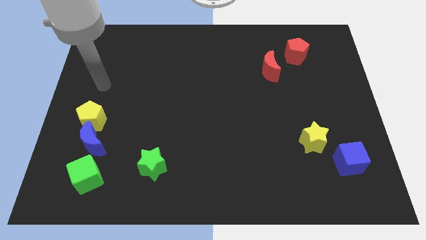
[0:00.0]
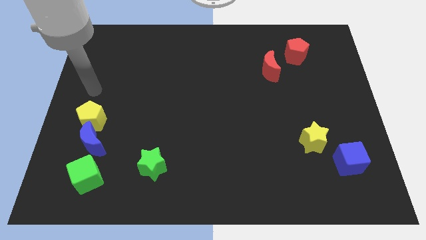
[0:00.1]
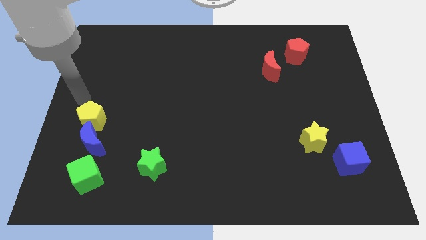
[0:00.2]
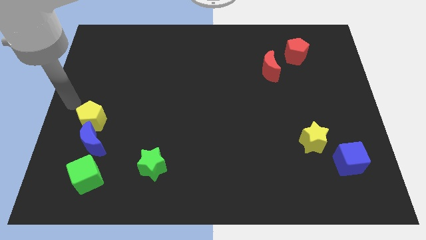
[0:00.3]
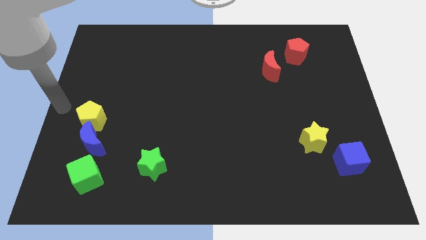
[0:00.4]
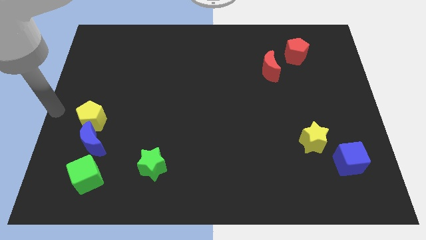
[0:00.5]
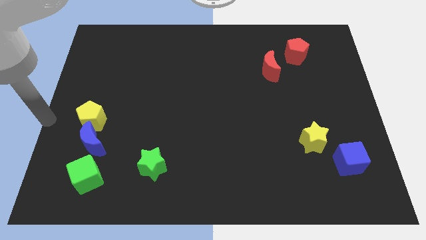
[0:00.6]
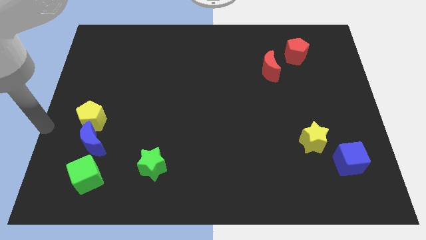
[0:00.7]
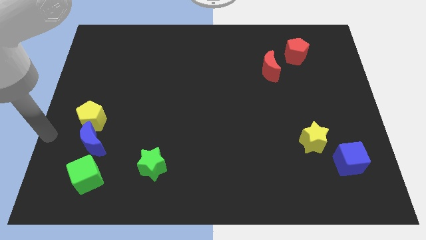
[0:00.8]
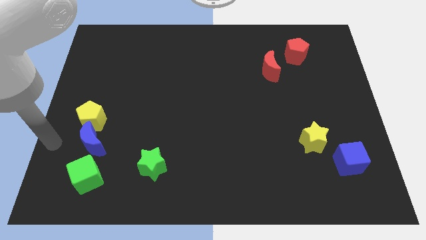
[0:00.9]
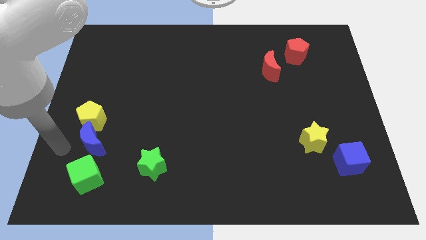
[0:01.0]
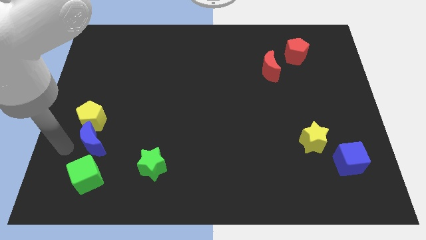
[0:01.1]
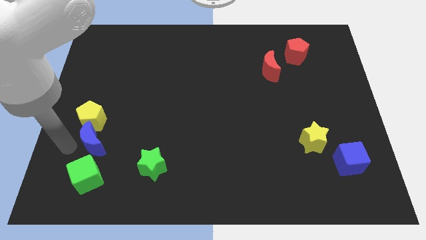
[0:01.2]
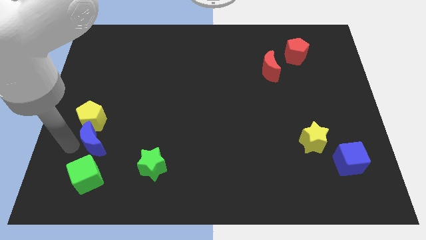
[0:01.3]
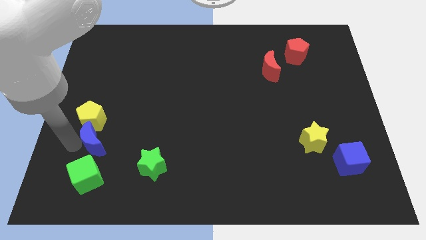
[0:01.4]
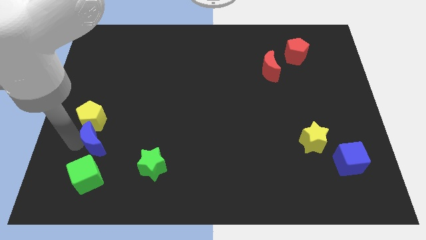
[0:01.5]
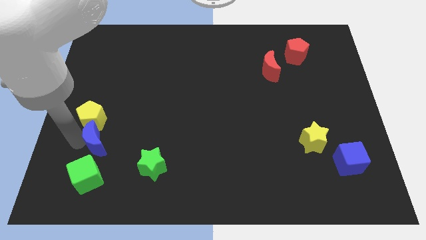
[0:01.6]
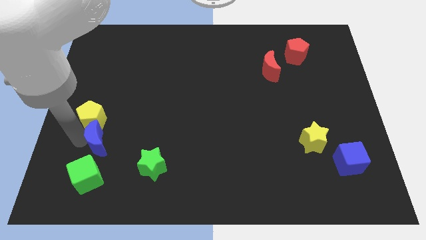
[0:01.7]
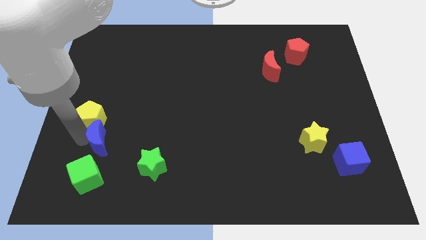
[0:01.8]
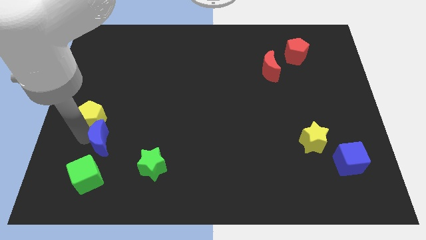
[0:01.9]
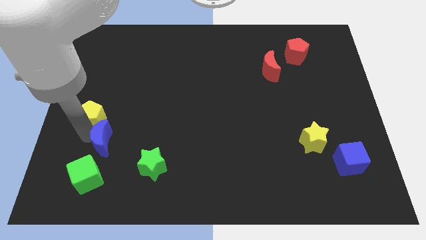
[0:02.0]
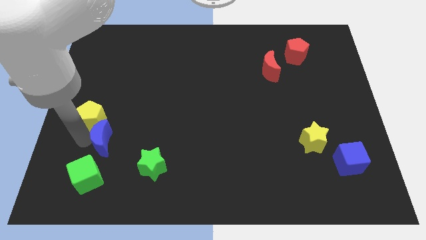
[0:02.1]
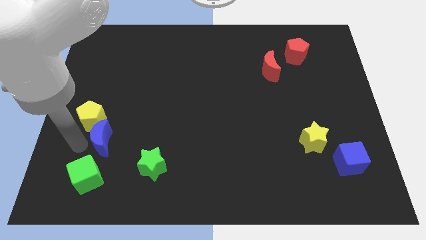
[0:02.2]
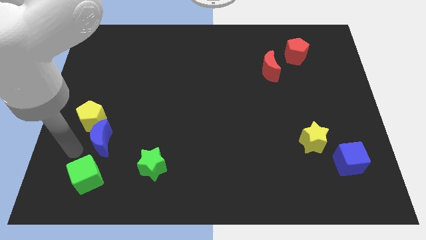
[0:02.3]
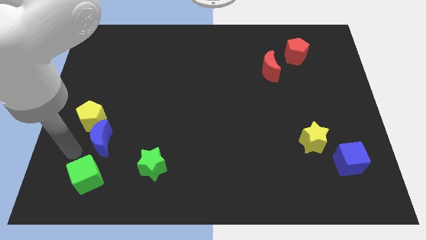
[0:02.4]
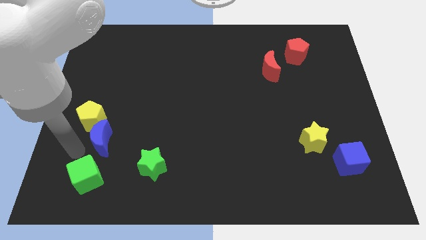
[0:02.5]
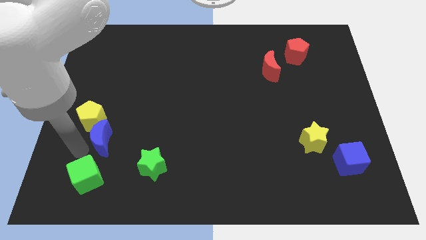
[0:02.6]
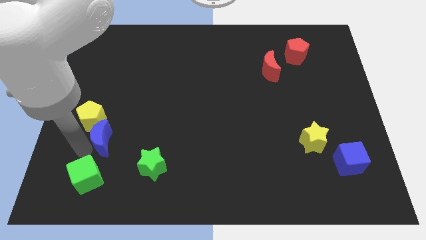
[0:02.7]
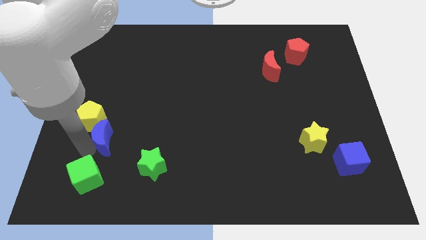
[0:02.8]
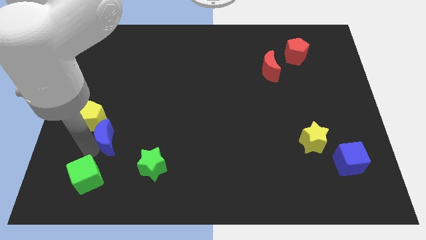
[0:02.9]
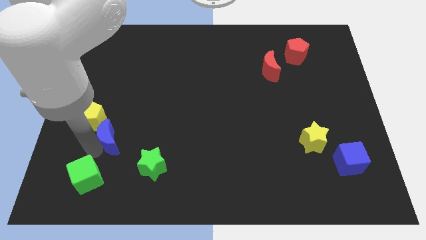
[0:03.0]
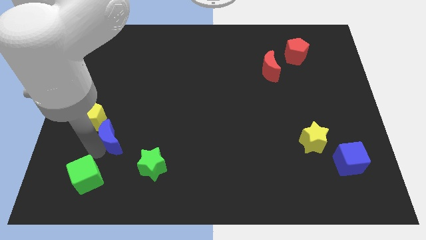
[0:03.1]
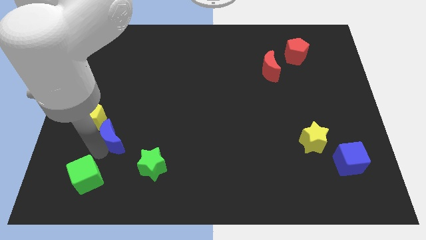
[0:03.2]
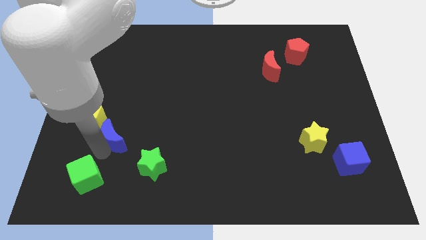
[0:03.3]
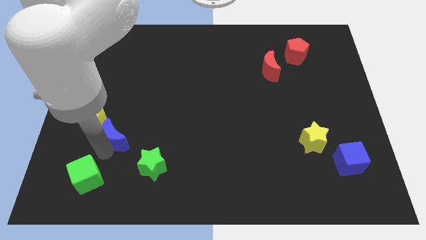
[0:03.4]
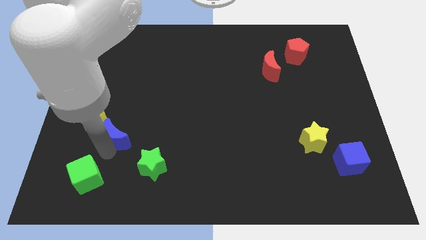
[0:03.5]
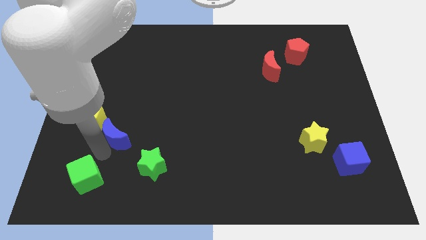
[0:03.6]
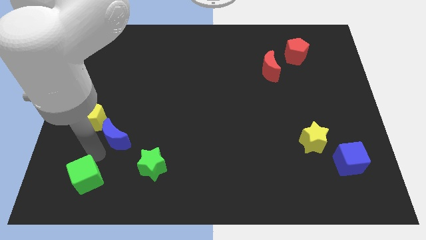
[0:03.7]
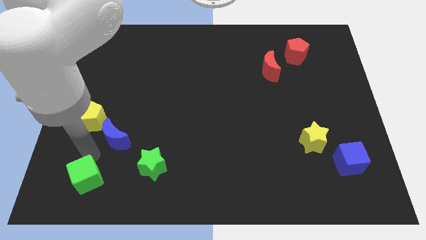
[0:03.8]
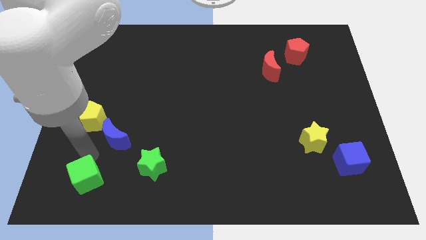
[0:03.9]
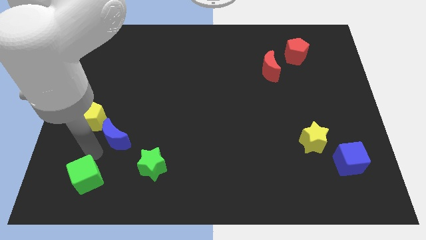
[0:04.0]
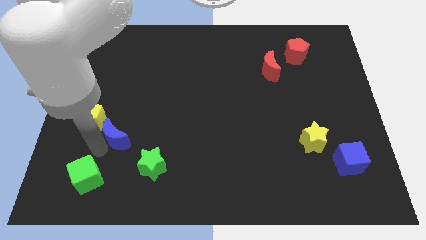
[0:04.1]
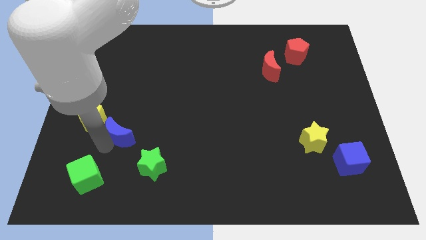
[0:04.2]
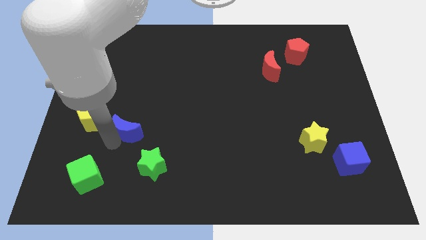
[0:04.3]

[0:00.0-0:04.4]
push the blue moon somewhat upwards and then to the right

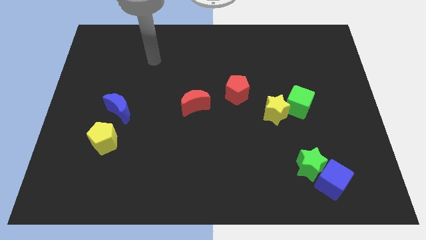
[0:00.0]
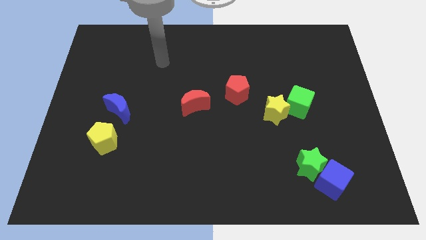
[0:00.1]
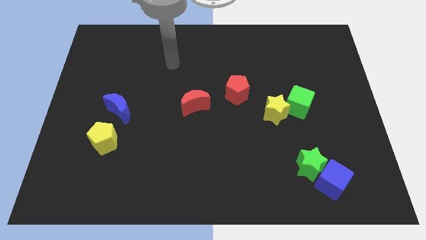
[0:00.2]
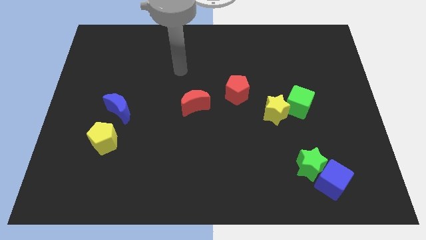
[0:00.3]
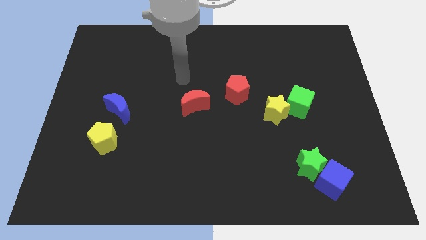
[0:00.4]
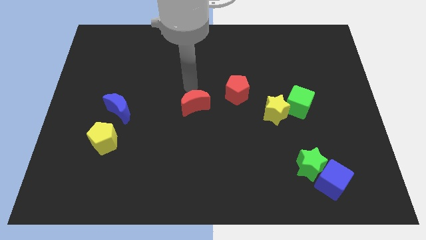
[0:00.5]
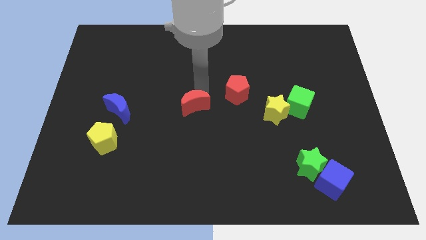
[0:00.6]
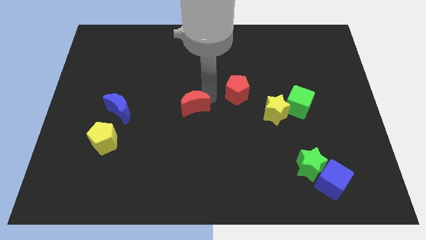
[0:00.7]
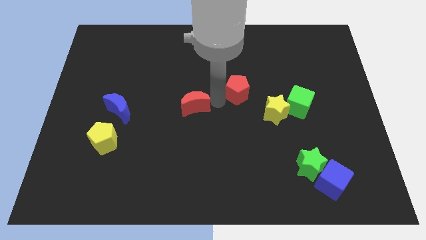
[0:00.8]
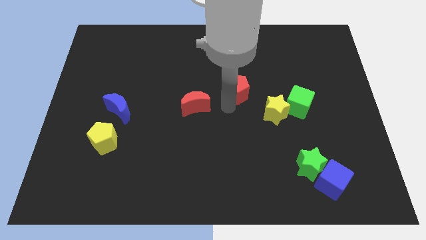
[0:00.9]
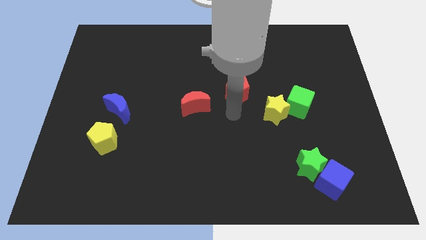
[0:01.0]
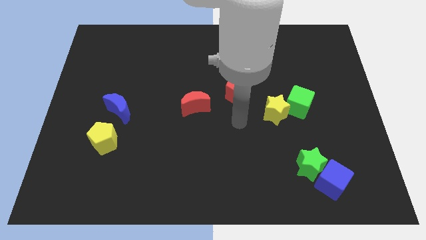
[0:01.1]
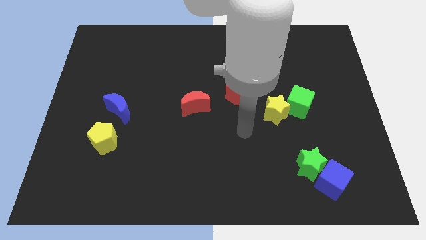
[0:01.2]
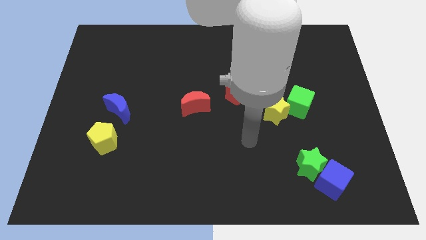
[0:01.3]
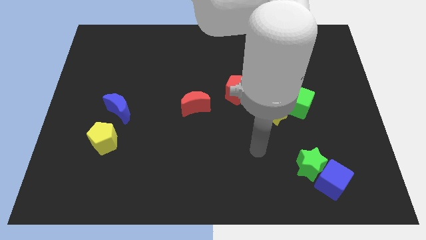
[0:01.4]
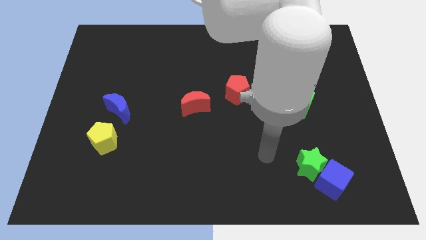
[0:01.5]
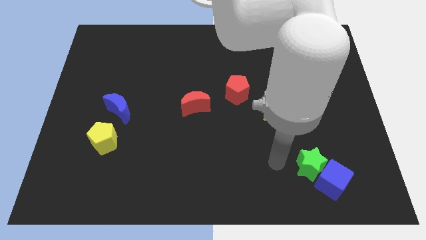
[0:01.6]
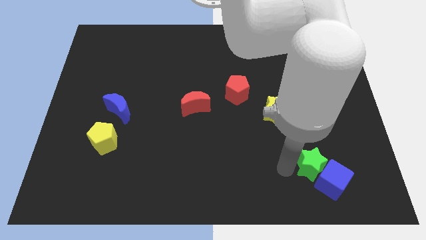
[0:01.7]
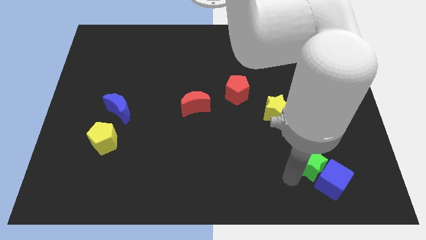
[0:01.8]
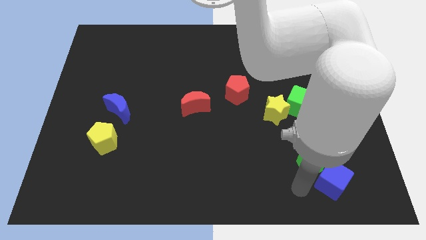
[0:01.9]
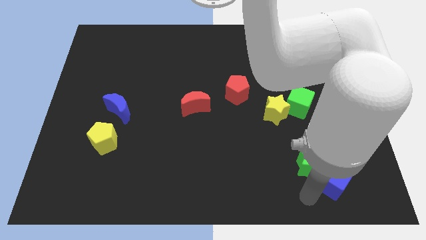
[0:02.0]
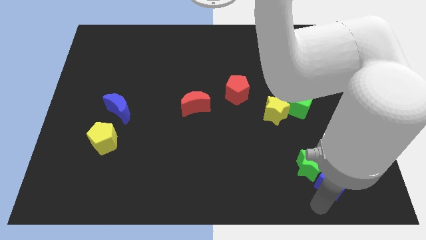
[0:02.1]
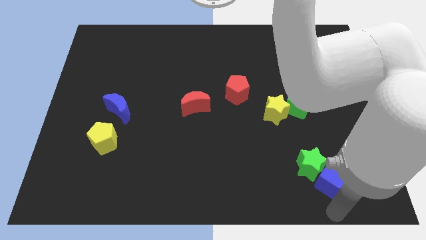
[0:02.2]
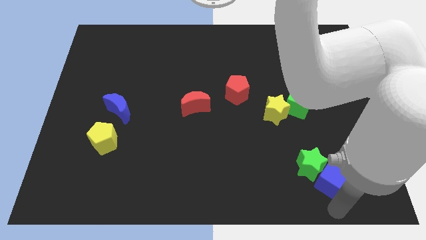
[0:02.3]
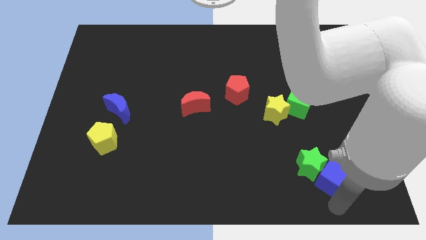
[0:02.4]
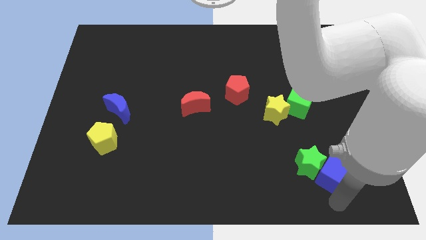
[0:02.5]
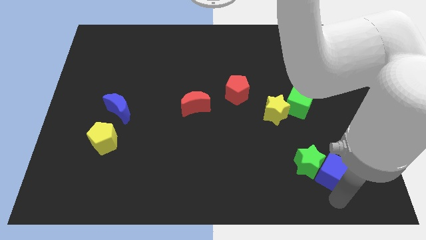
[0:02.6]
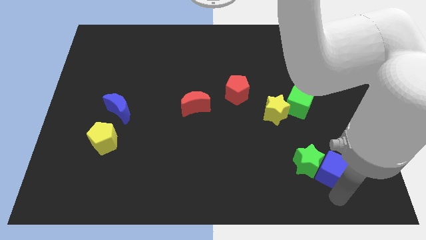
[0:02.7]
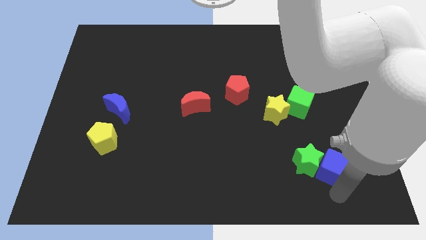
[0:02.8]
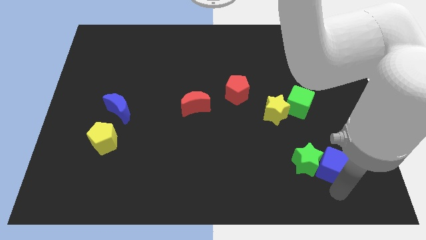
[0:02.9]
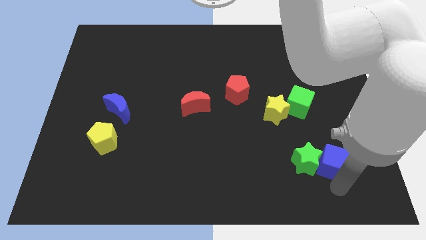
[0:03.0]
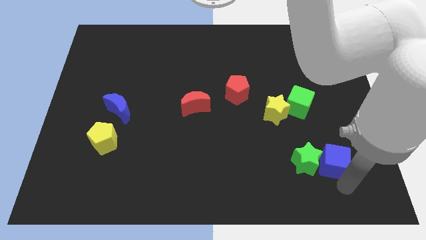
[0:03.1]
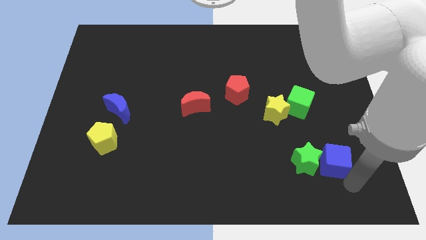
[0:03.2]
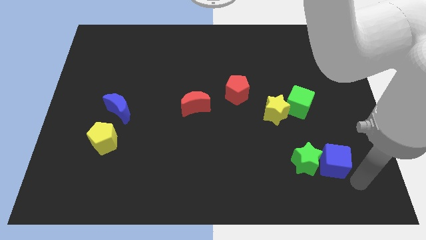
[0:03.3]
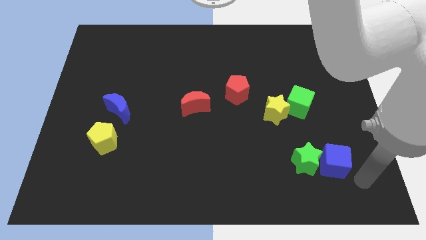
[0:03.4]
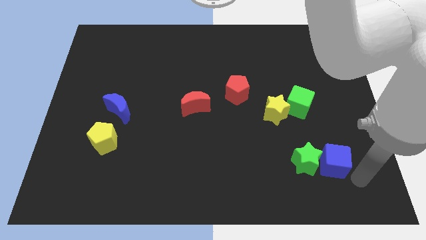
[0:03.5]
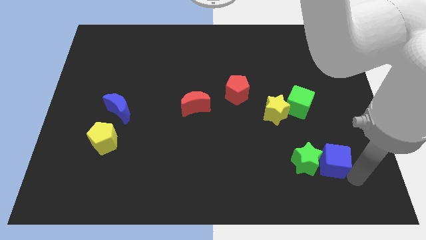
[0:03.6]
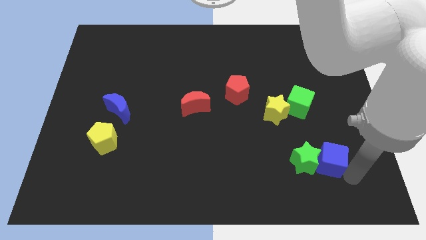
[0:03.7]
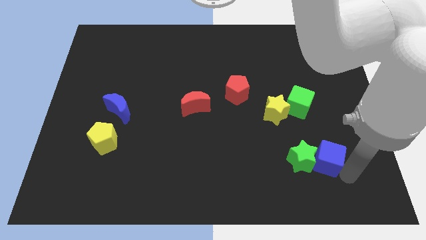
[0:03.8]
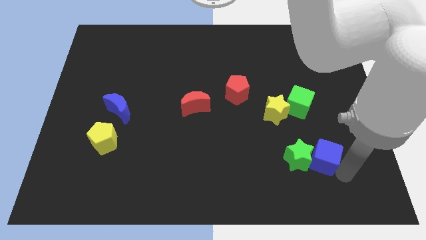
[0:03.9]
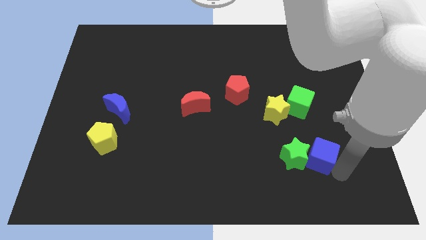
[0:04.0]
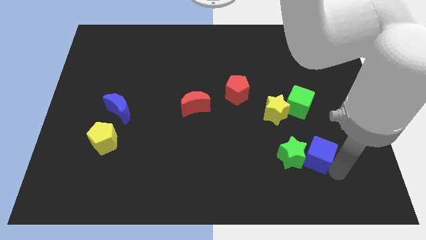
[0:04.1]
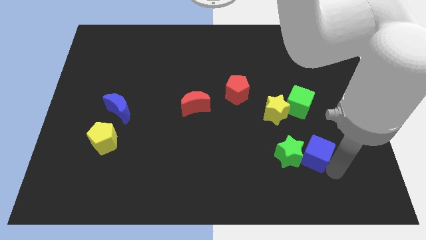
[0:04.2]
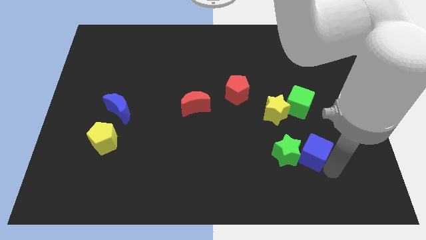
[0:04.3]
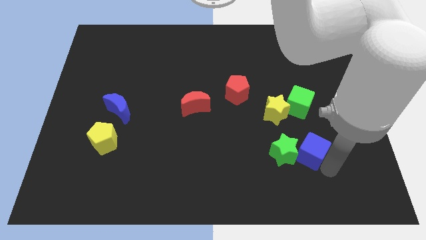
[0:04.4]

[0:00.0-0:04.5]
move the blue cube a bit diagonally upwards and to the left
